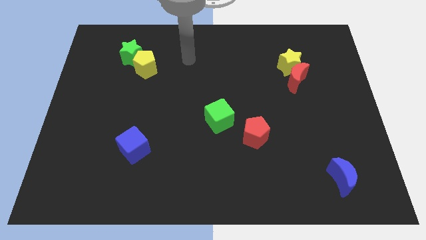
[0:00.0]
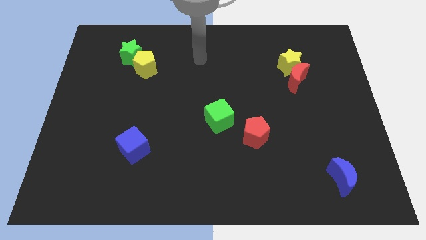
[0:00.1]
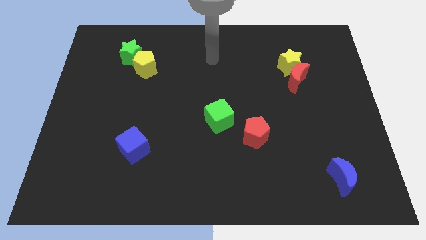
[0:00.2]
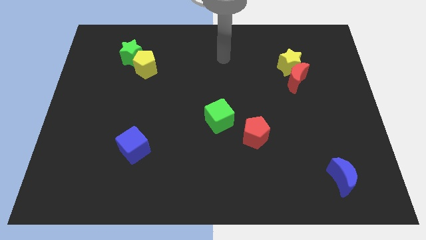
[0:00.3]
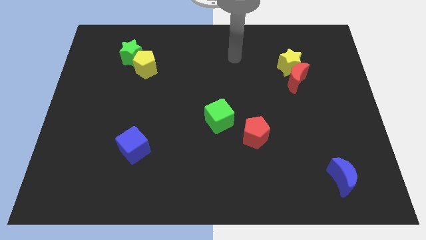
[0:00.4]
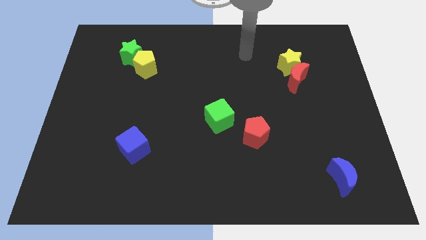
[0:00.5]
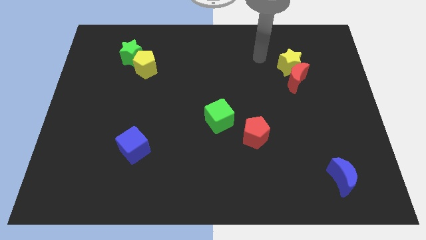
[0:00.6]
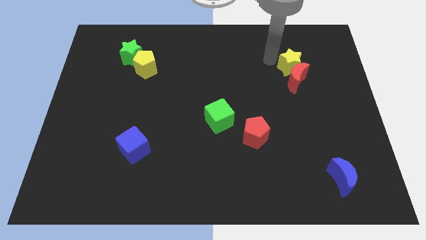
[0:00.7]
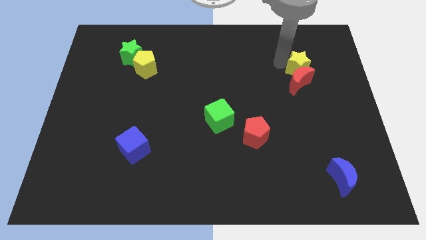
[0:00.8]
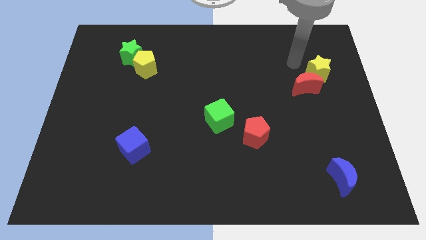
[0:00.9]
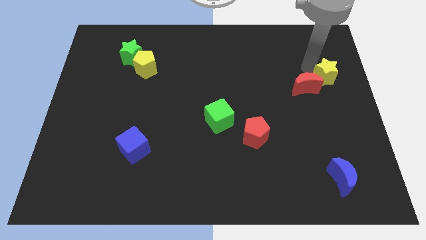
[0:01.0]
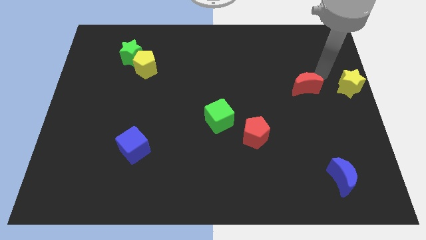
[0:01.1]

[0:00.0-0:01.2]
move the red moon away from the yellow star

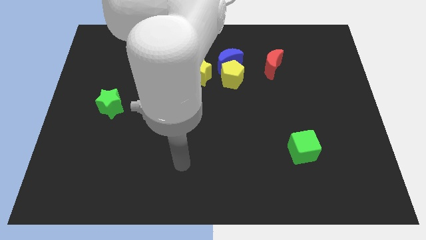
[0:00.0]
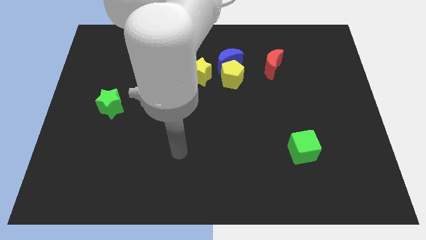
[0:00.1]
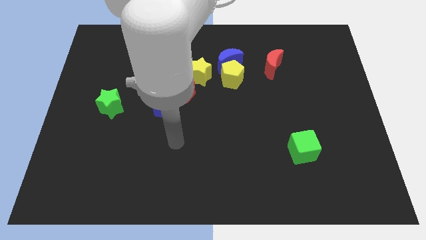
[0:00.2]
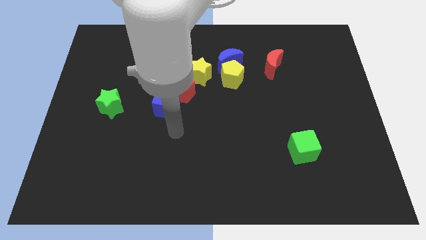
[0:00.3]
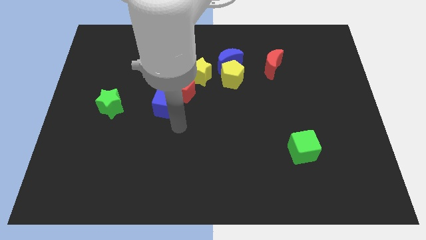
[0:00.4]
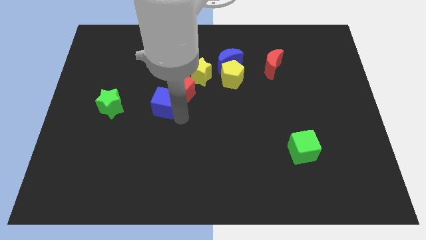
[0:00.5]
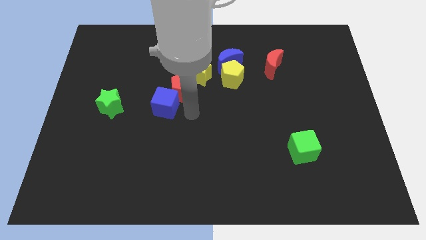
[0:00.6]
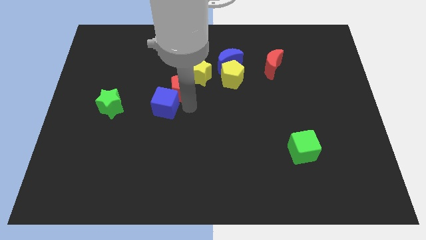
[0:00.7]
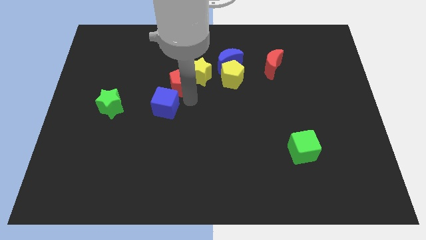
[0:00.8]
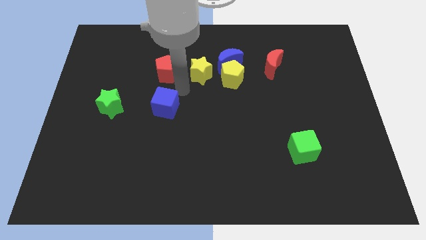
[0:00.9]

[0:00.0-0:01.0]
pull the blue cube apart from the red pentagon

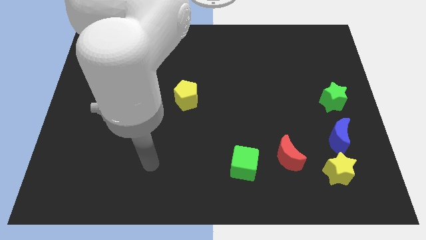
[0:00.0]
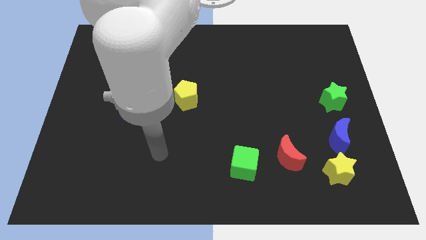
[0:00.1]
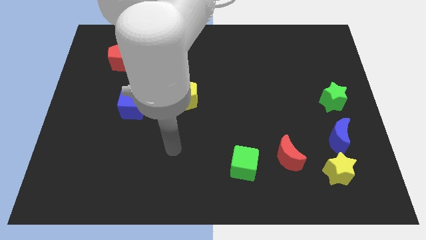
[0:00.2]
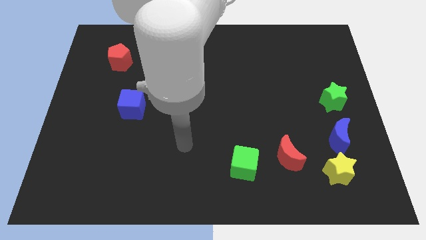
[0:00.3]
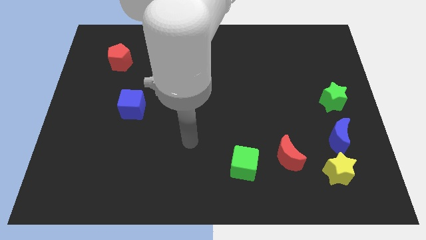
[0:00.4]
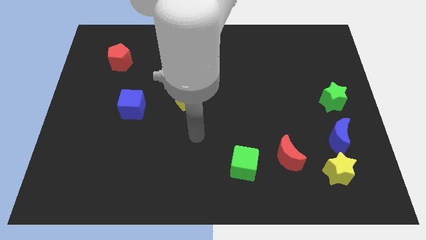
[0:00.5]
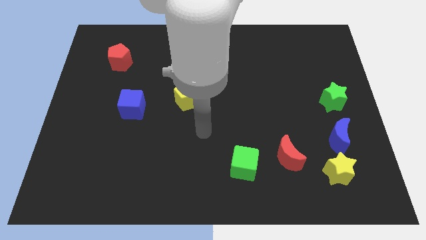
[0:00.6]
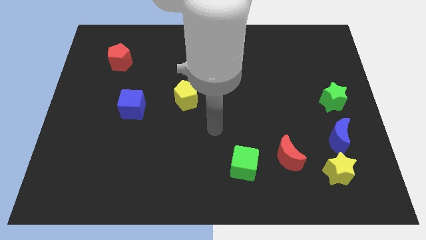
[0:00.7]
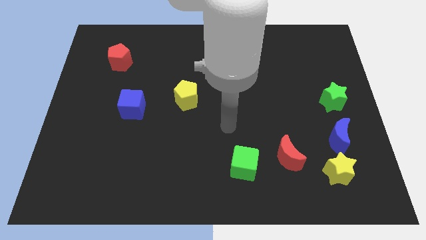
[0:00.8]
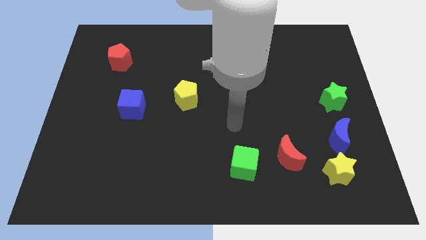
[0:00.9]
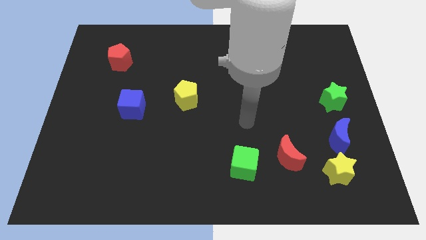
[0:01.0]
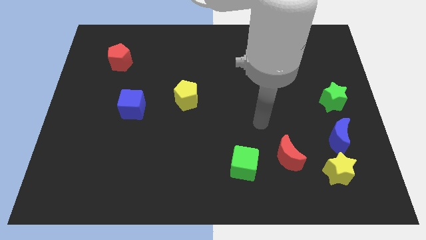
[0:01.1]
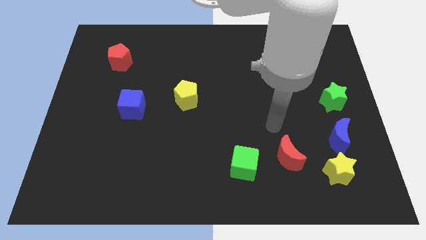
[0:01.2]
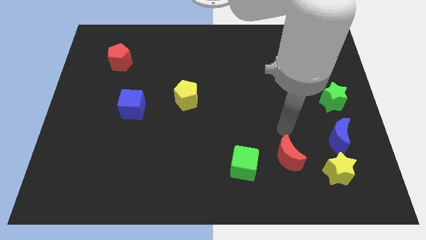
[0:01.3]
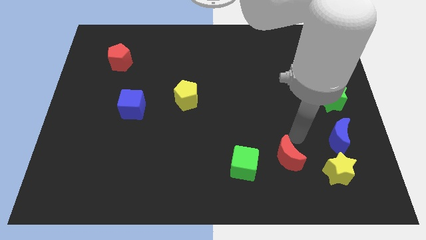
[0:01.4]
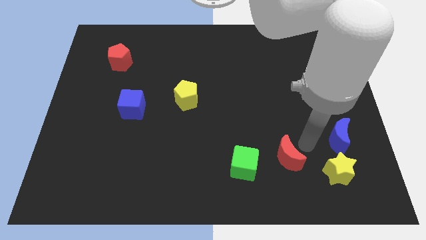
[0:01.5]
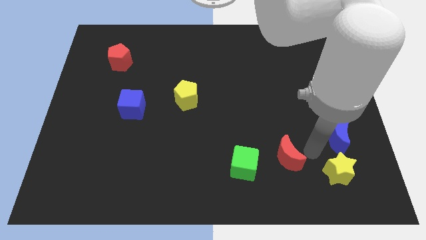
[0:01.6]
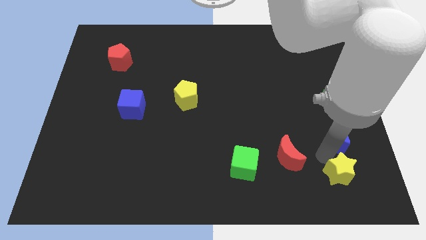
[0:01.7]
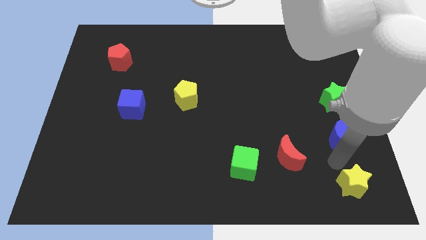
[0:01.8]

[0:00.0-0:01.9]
separate the blue moon from the yellow star

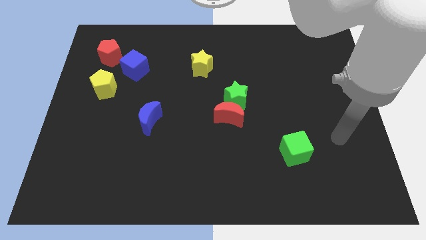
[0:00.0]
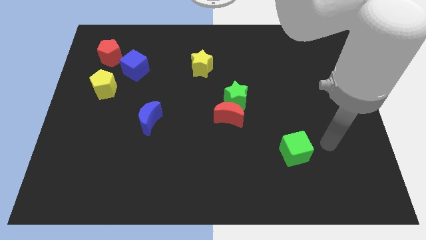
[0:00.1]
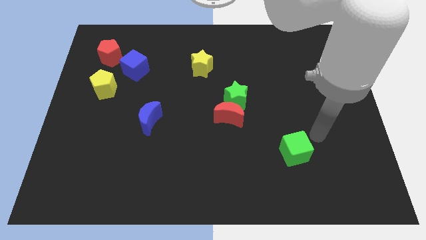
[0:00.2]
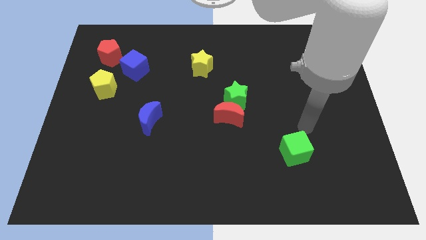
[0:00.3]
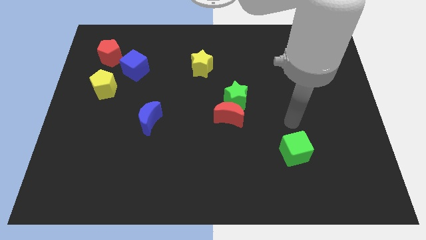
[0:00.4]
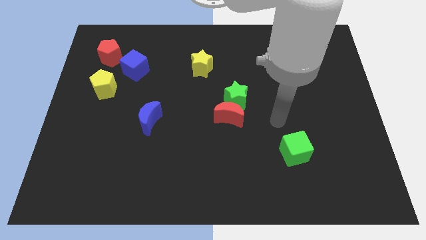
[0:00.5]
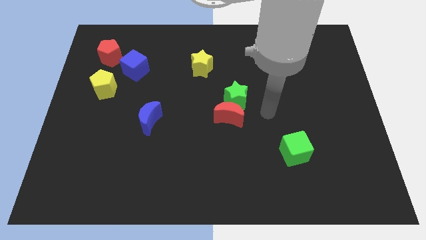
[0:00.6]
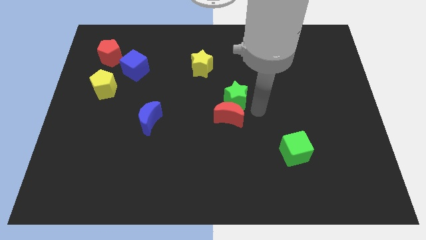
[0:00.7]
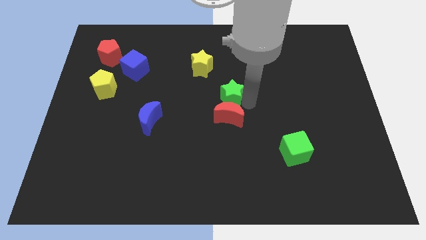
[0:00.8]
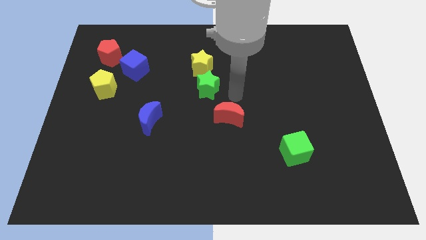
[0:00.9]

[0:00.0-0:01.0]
pull the red moon apart from the green star

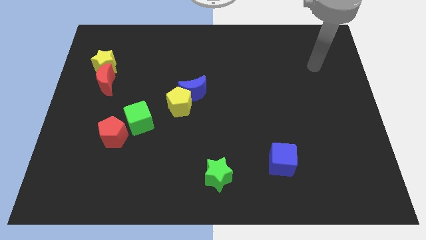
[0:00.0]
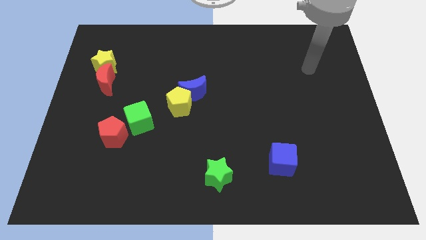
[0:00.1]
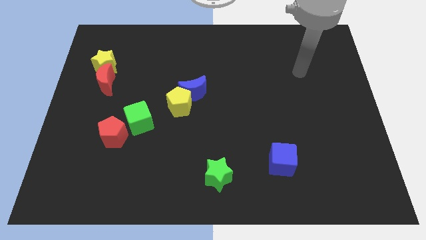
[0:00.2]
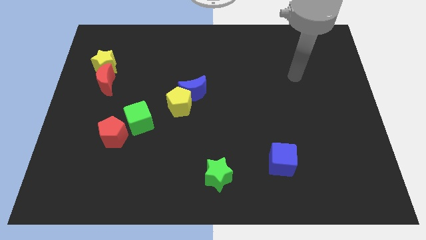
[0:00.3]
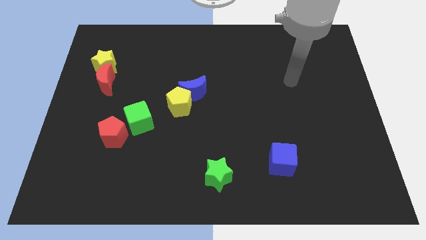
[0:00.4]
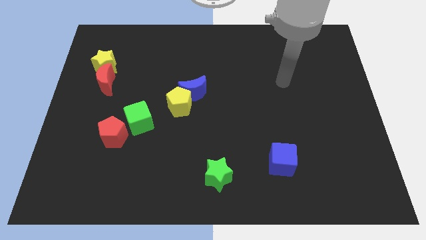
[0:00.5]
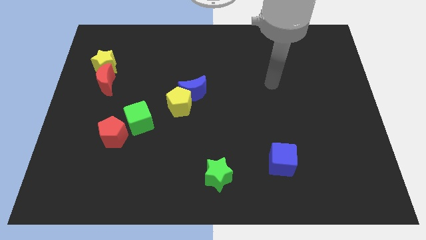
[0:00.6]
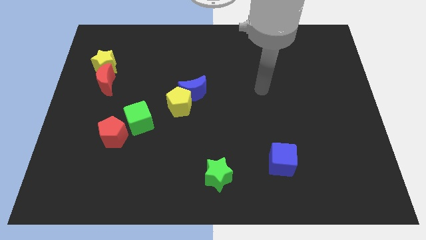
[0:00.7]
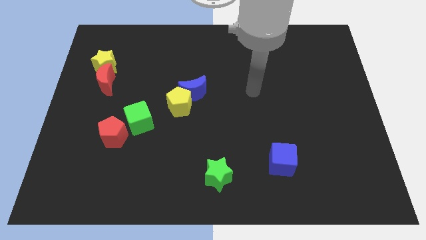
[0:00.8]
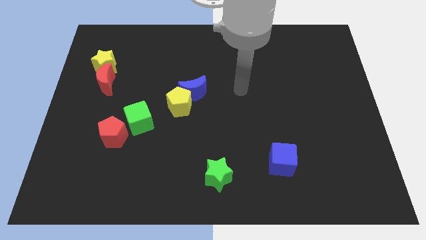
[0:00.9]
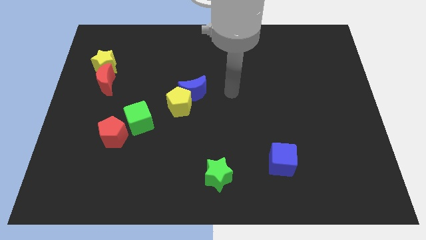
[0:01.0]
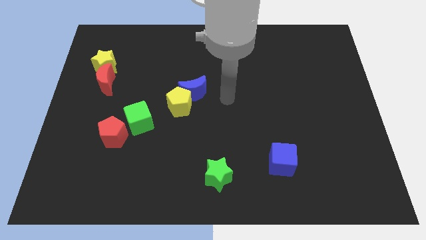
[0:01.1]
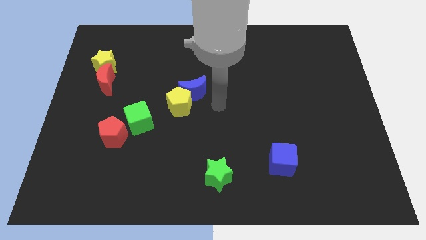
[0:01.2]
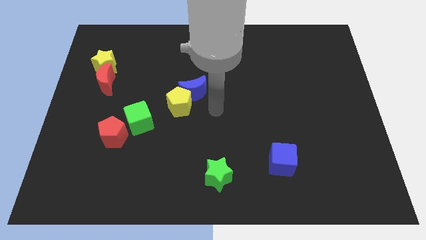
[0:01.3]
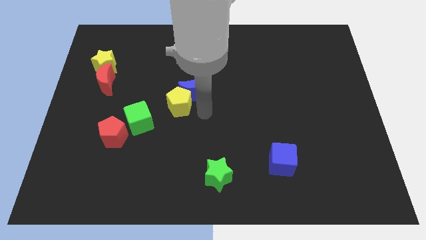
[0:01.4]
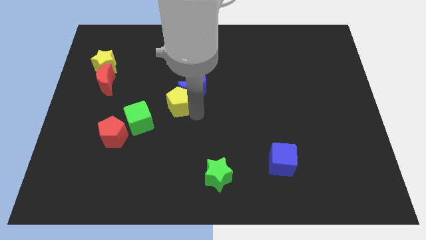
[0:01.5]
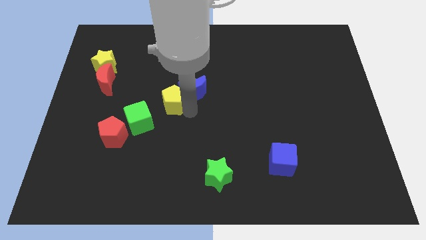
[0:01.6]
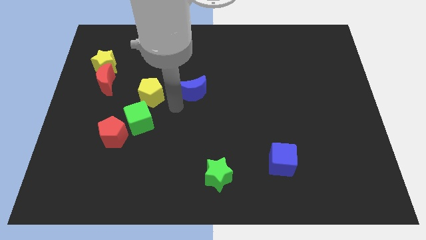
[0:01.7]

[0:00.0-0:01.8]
separate the blue moon from the yellow pentagon

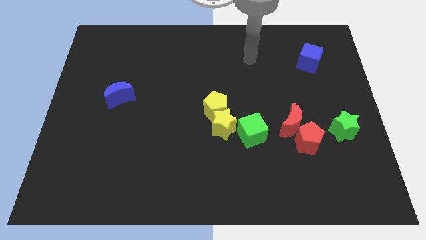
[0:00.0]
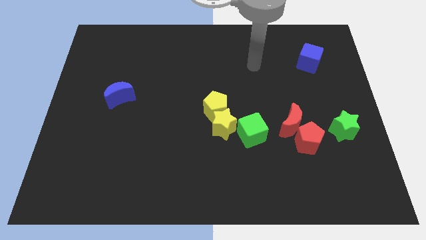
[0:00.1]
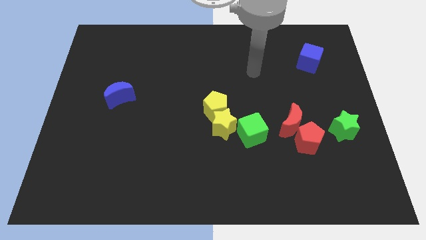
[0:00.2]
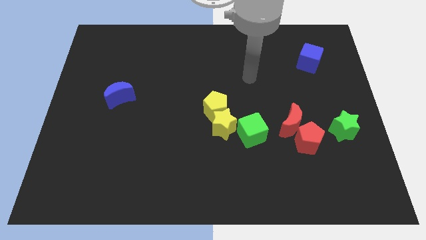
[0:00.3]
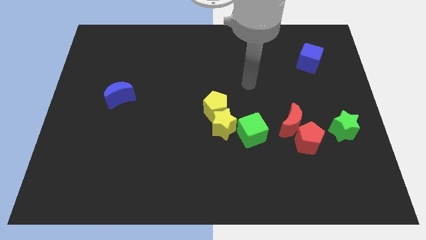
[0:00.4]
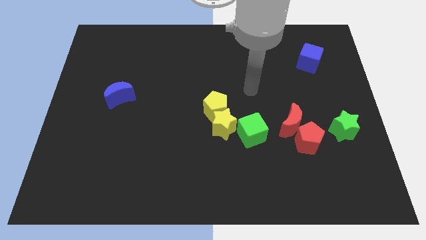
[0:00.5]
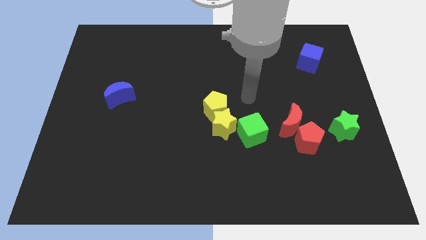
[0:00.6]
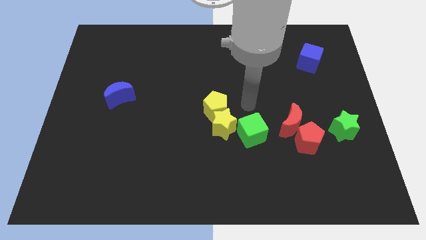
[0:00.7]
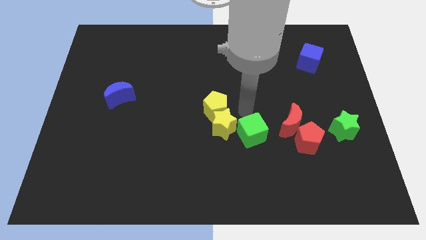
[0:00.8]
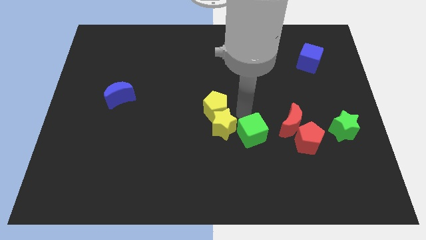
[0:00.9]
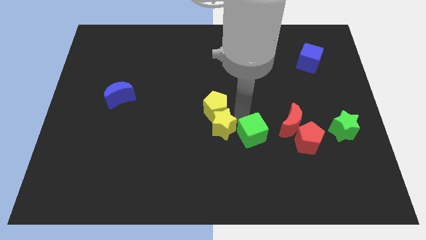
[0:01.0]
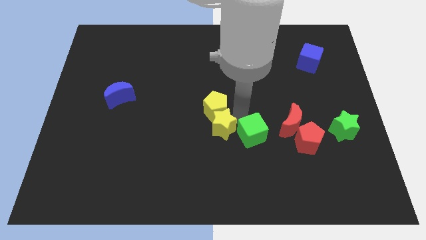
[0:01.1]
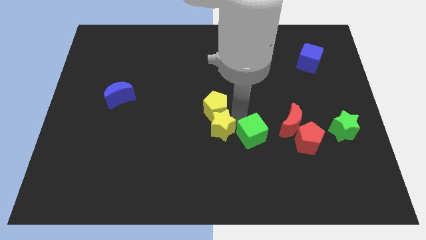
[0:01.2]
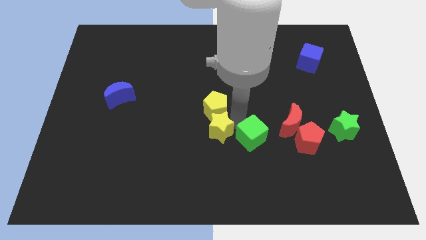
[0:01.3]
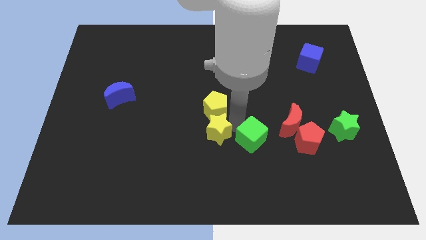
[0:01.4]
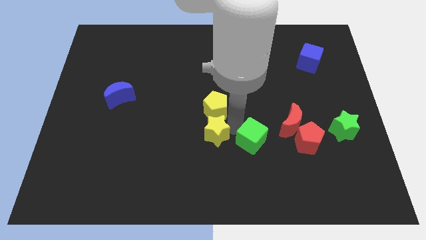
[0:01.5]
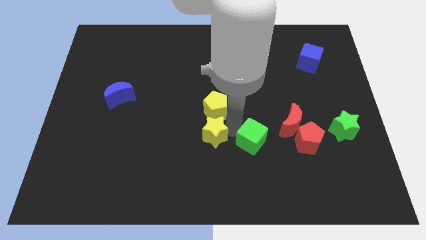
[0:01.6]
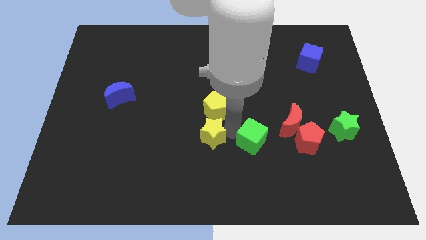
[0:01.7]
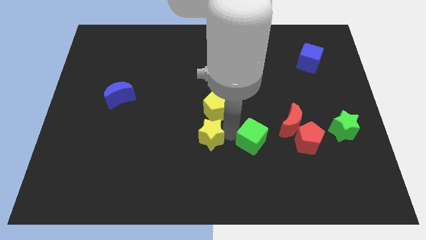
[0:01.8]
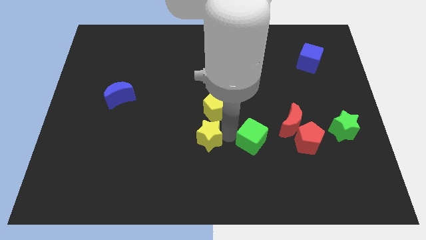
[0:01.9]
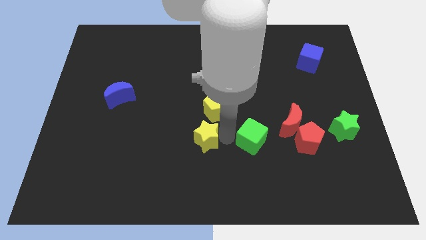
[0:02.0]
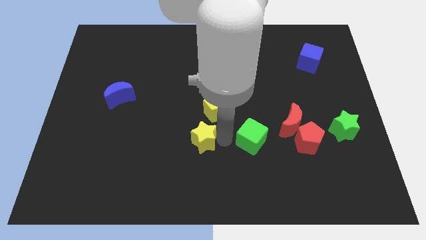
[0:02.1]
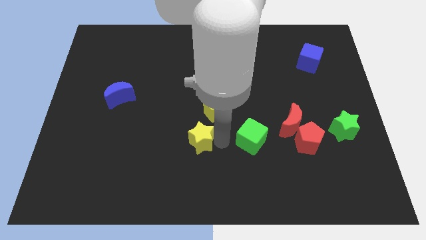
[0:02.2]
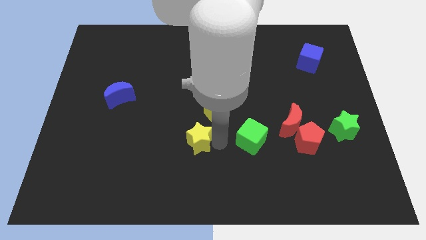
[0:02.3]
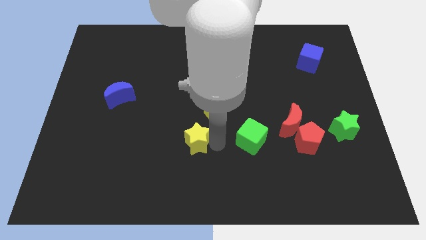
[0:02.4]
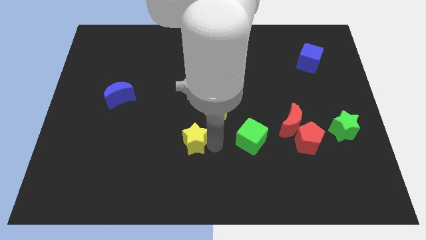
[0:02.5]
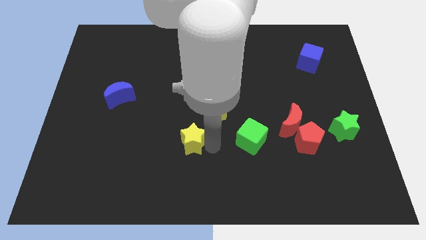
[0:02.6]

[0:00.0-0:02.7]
pull the yellow star apart from the yellow pentagon and green cube
